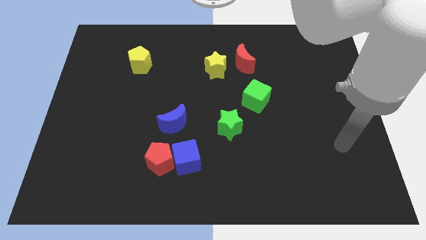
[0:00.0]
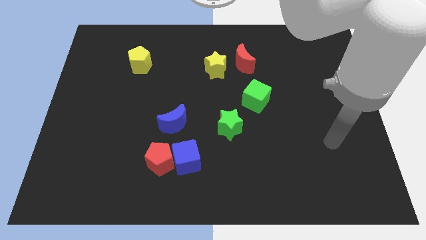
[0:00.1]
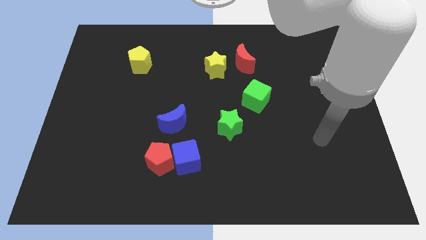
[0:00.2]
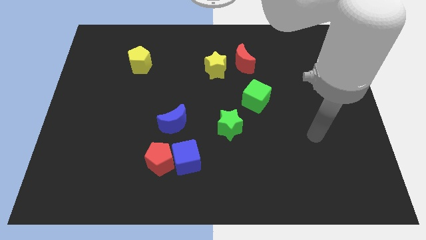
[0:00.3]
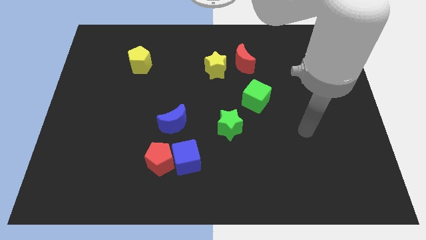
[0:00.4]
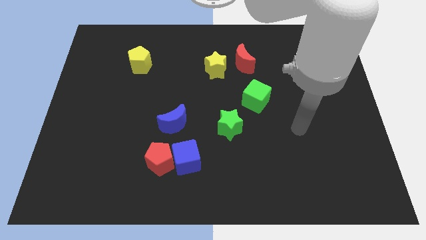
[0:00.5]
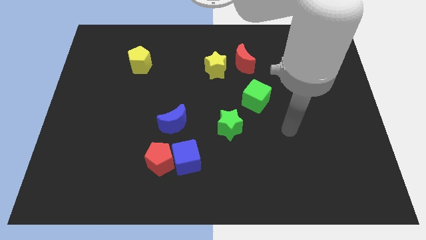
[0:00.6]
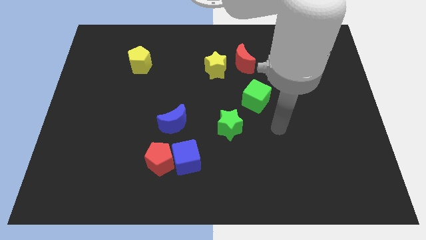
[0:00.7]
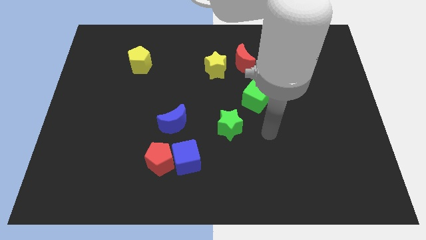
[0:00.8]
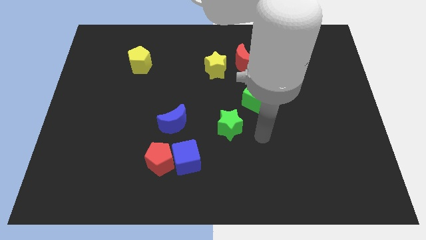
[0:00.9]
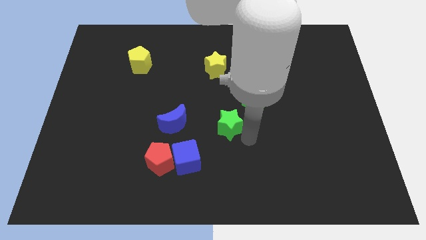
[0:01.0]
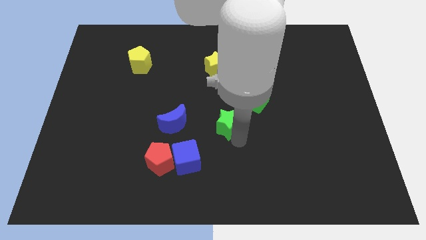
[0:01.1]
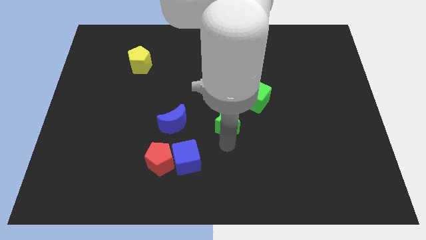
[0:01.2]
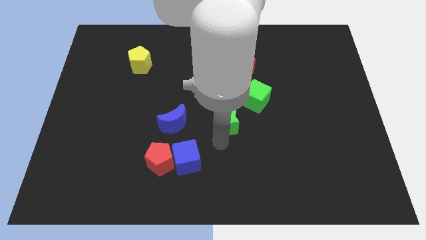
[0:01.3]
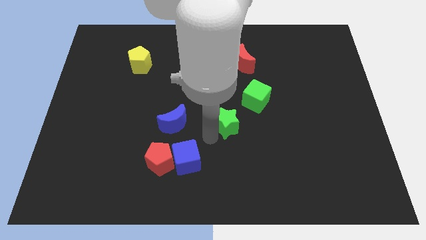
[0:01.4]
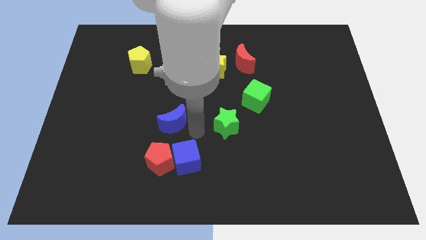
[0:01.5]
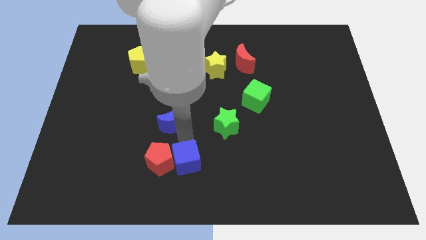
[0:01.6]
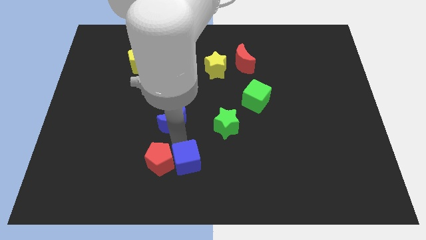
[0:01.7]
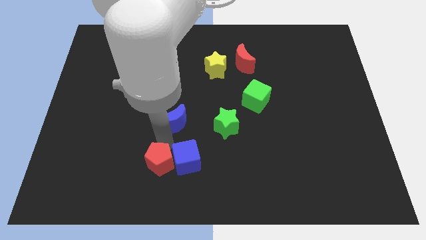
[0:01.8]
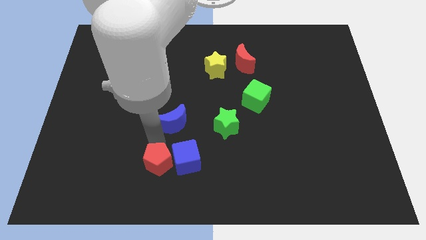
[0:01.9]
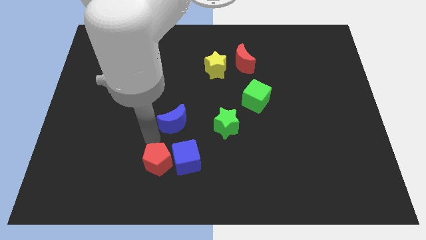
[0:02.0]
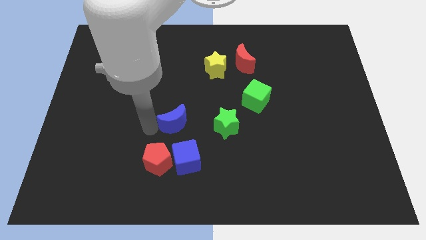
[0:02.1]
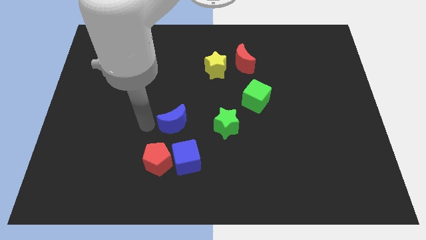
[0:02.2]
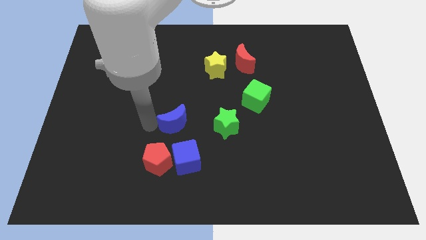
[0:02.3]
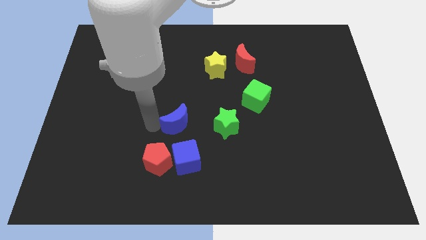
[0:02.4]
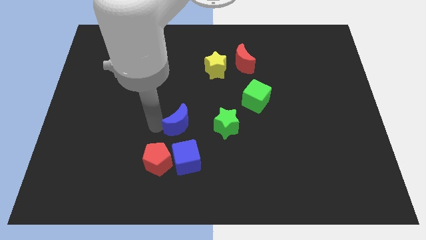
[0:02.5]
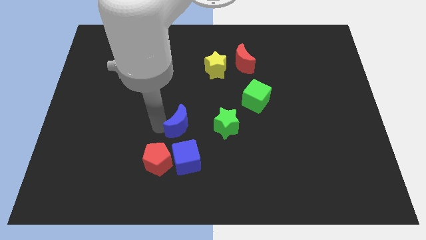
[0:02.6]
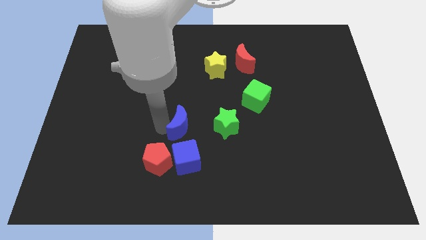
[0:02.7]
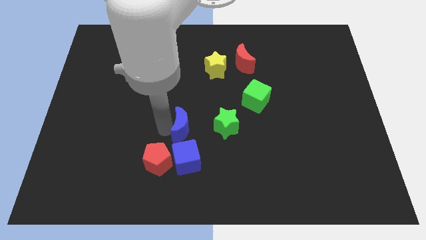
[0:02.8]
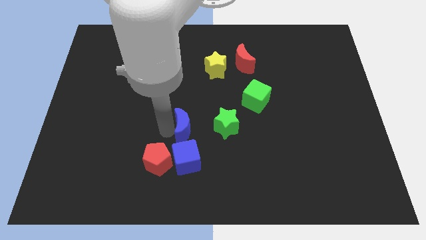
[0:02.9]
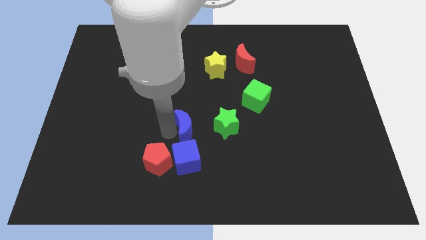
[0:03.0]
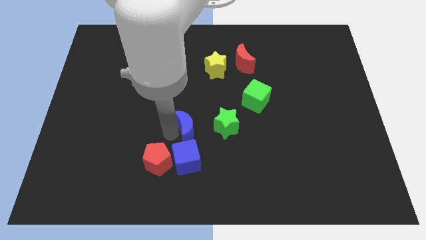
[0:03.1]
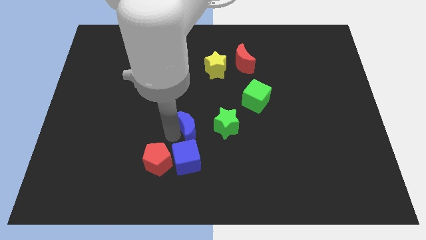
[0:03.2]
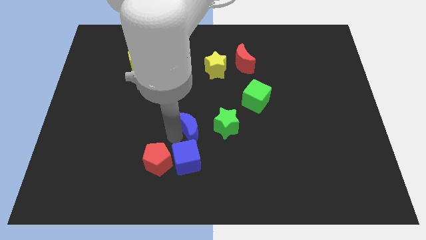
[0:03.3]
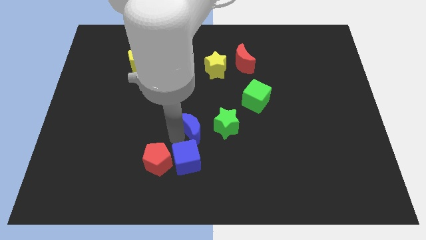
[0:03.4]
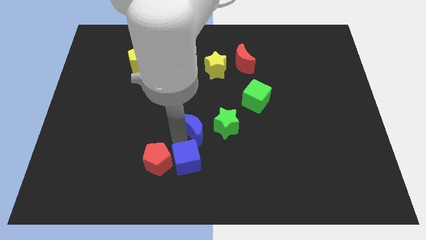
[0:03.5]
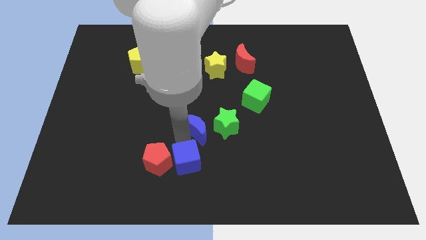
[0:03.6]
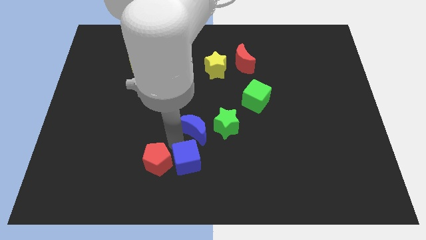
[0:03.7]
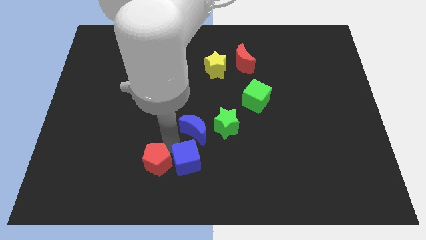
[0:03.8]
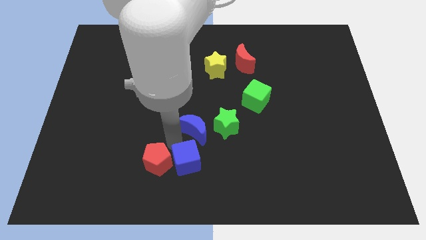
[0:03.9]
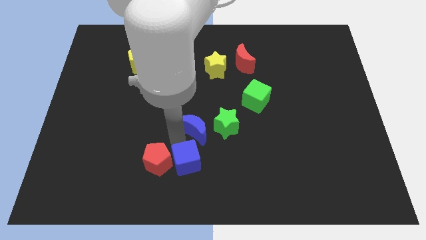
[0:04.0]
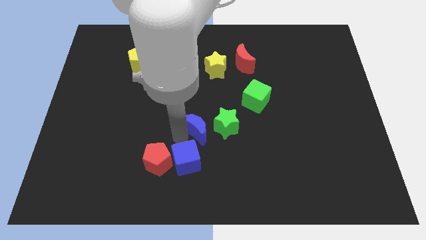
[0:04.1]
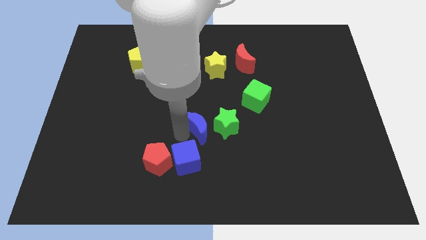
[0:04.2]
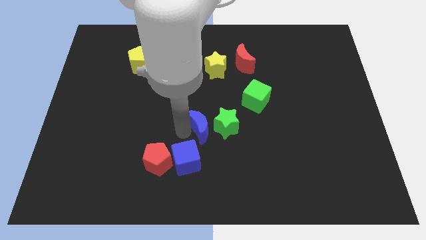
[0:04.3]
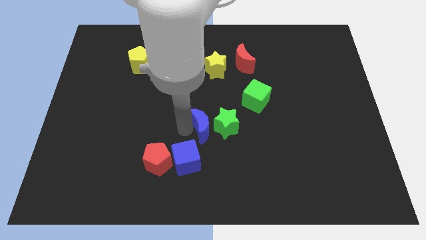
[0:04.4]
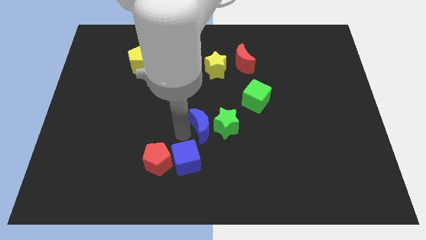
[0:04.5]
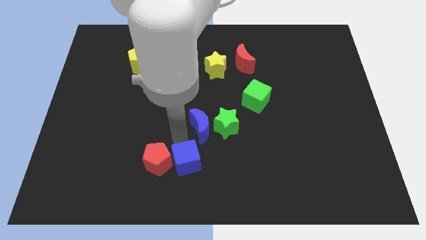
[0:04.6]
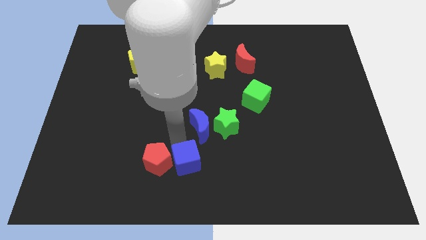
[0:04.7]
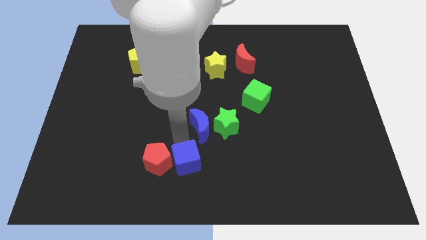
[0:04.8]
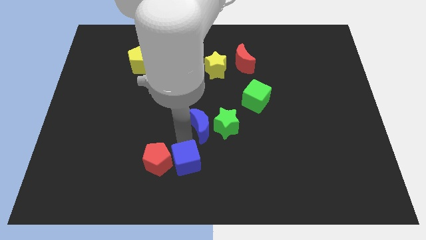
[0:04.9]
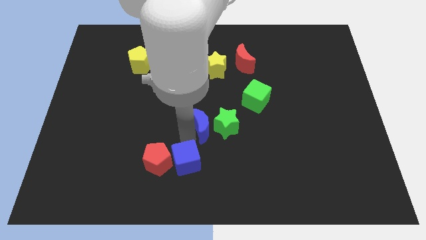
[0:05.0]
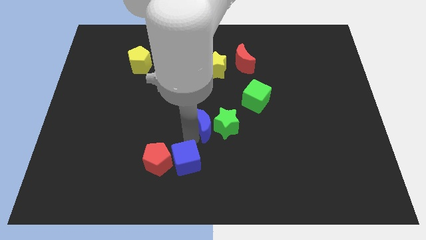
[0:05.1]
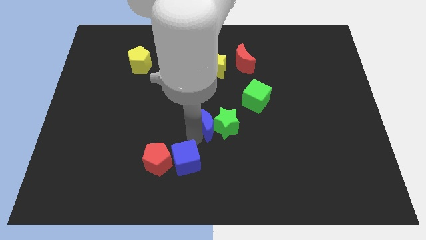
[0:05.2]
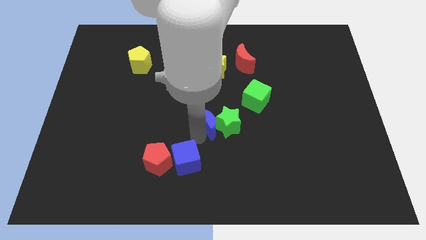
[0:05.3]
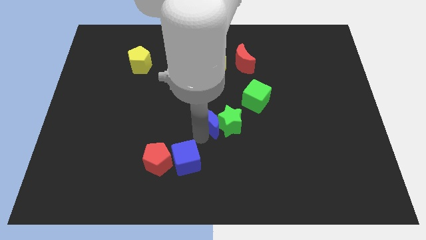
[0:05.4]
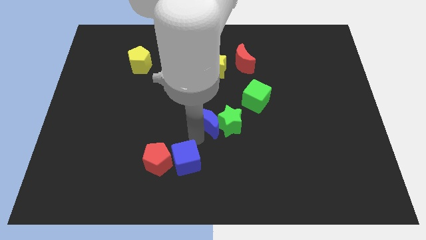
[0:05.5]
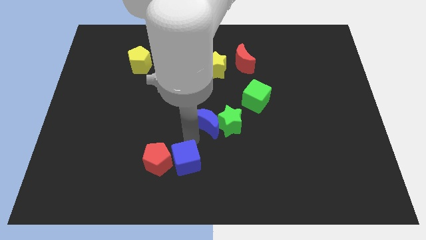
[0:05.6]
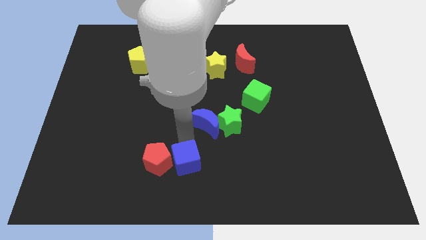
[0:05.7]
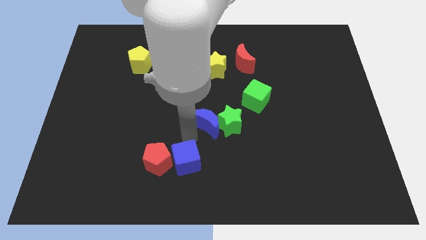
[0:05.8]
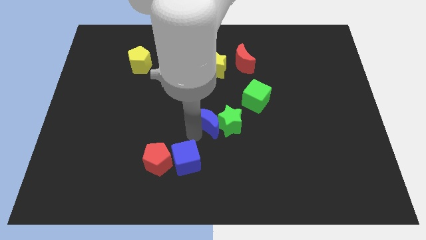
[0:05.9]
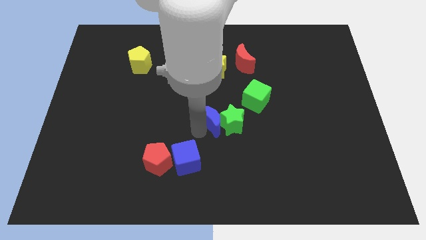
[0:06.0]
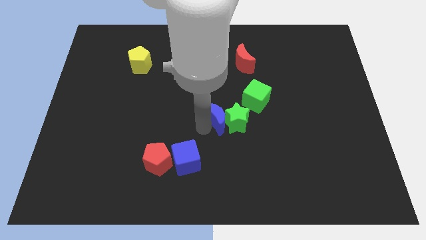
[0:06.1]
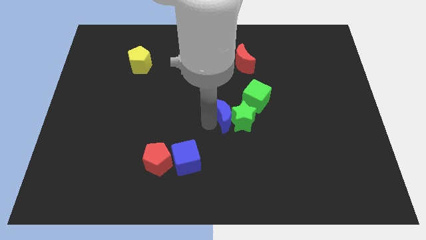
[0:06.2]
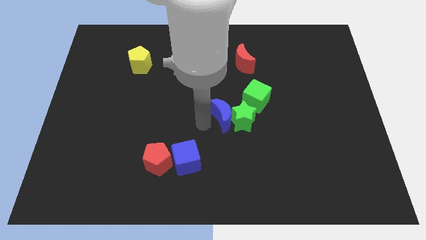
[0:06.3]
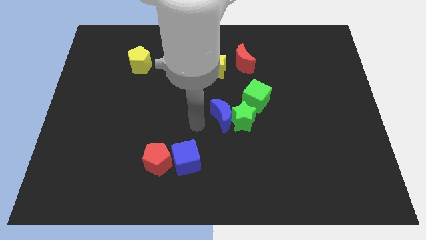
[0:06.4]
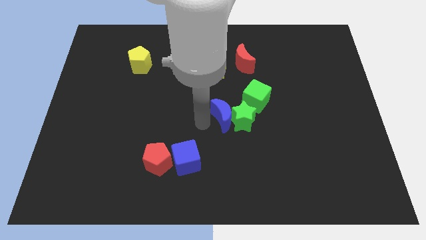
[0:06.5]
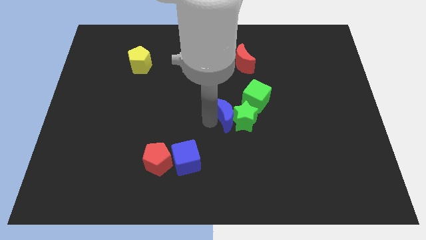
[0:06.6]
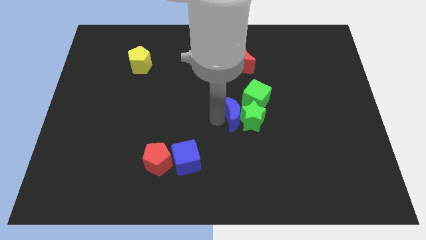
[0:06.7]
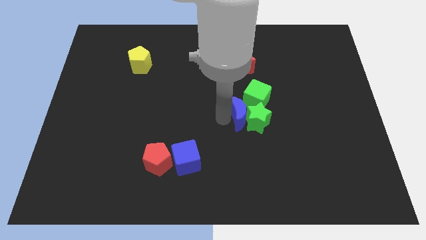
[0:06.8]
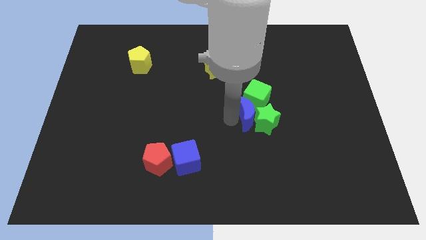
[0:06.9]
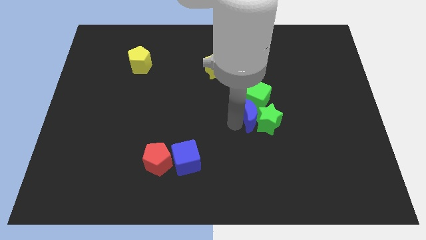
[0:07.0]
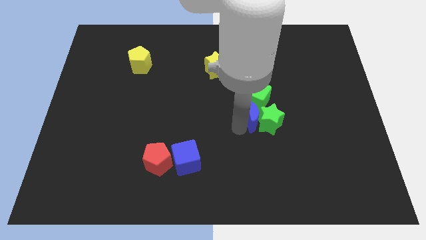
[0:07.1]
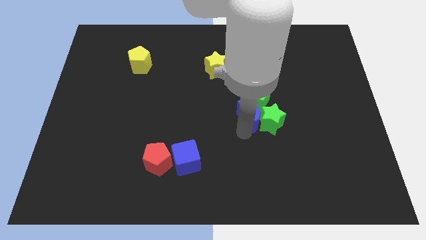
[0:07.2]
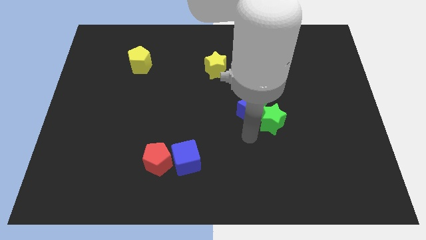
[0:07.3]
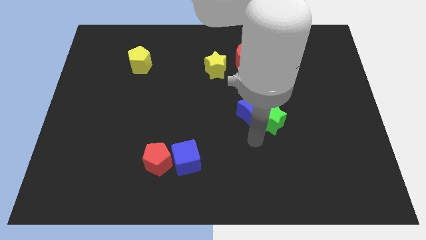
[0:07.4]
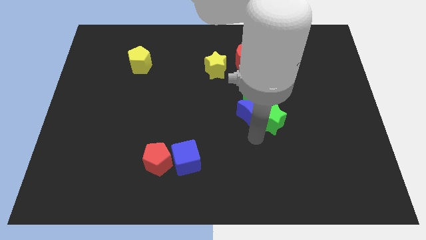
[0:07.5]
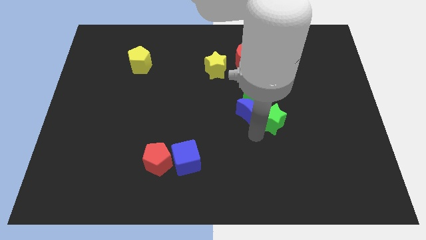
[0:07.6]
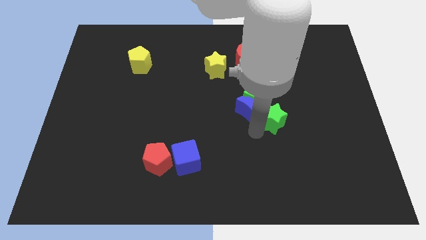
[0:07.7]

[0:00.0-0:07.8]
push the blue moon to the bottom side of the red moon

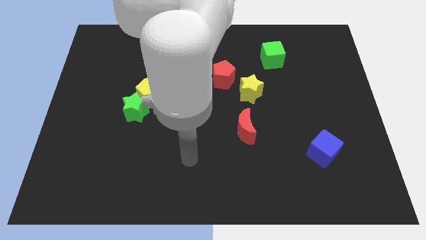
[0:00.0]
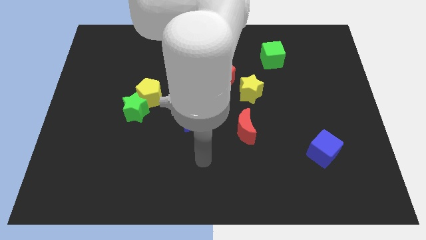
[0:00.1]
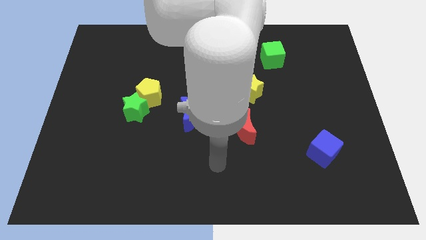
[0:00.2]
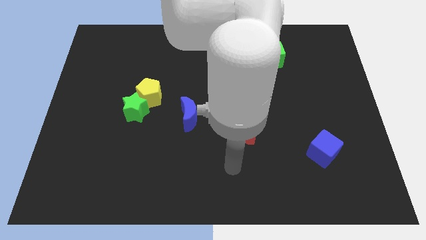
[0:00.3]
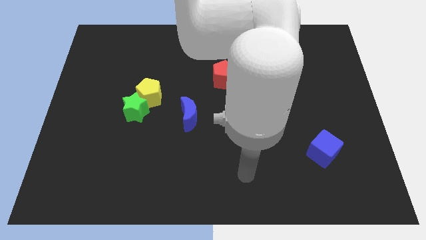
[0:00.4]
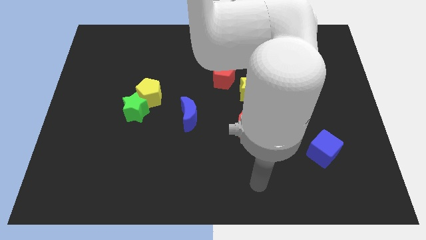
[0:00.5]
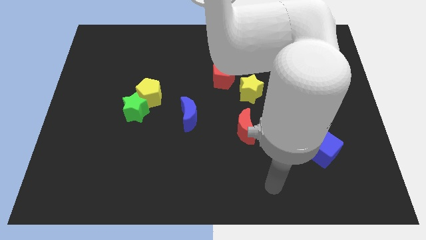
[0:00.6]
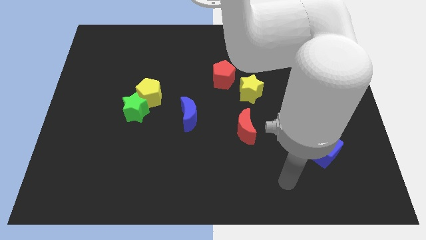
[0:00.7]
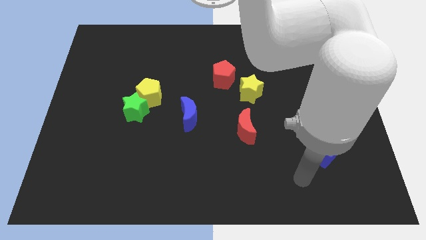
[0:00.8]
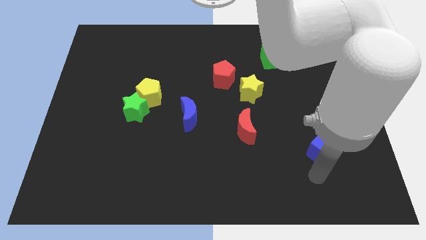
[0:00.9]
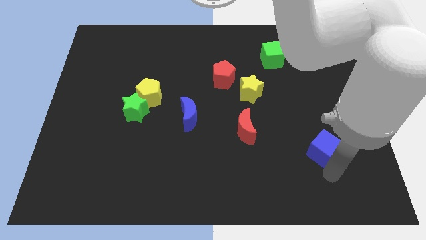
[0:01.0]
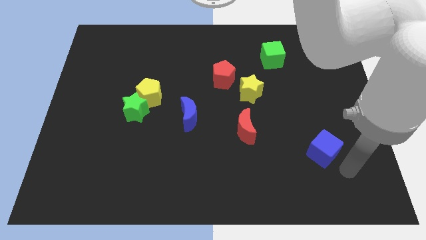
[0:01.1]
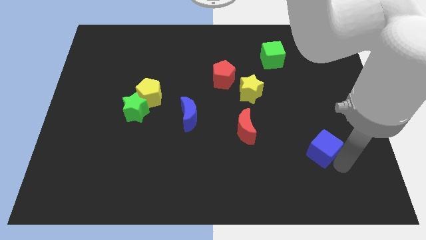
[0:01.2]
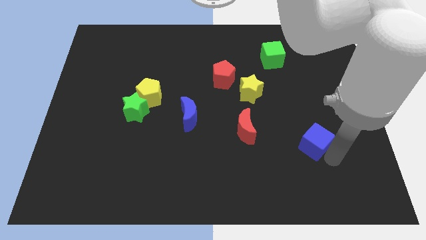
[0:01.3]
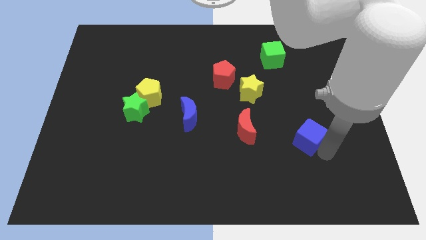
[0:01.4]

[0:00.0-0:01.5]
push the blue cube to the right of the red moon
